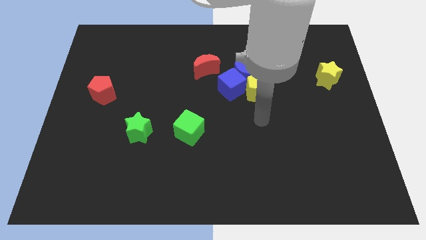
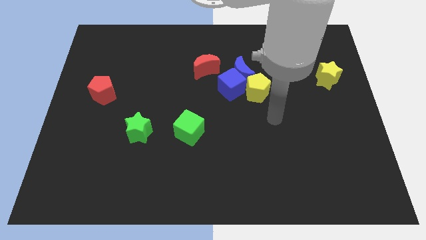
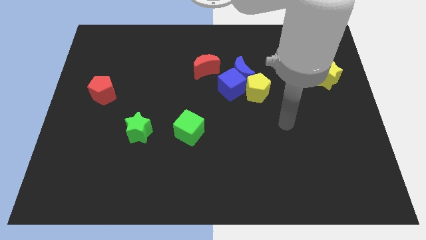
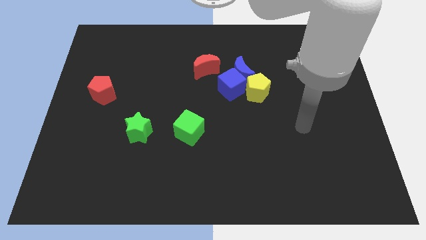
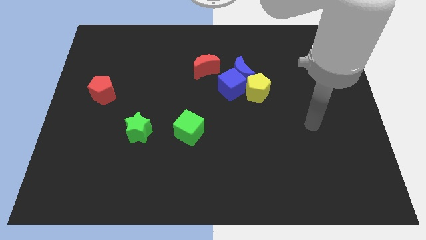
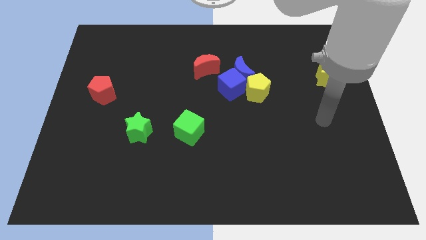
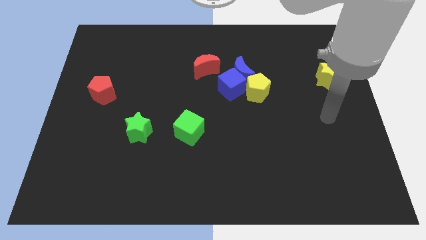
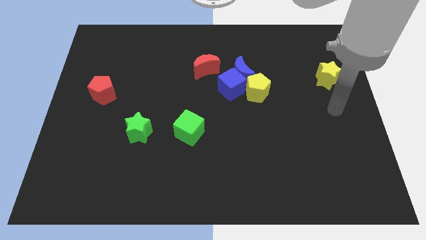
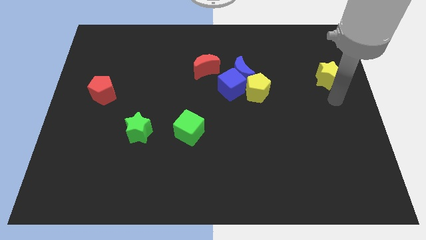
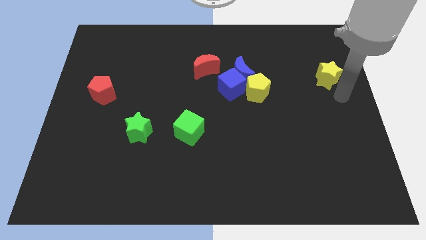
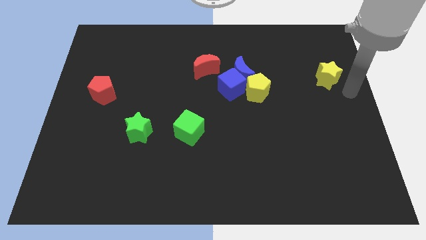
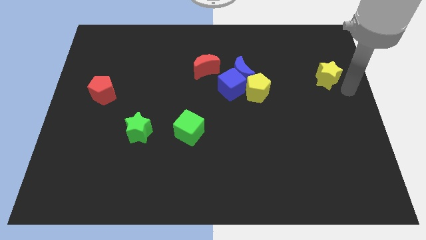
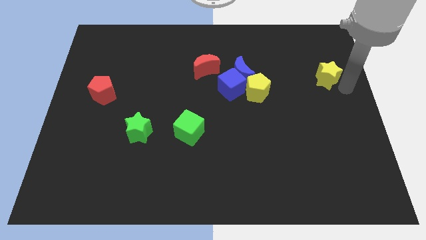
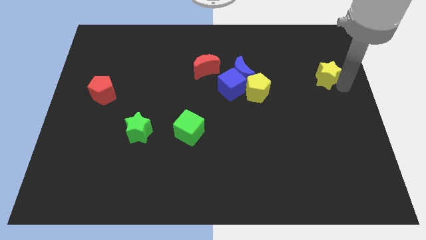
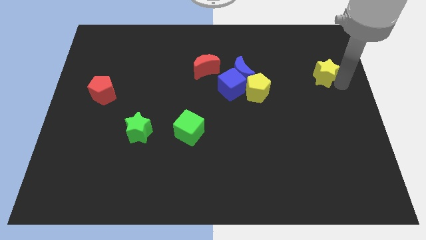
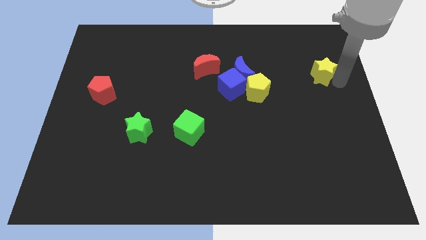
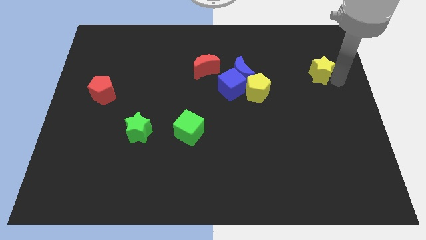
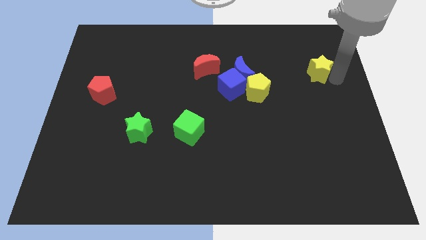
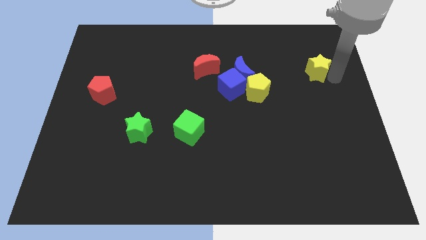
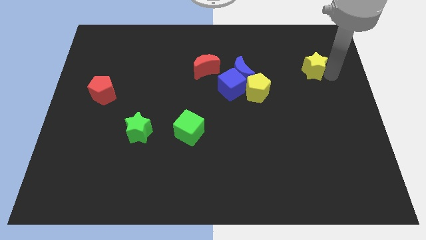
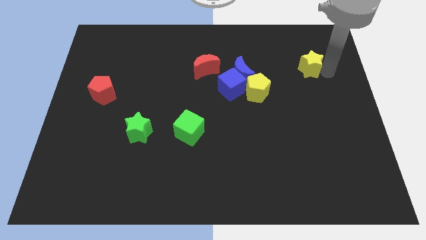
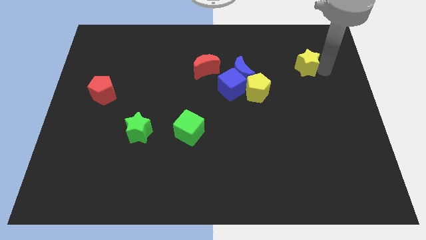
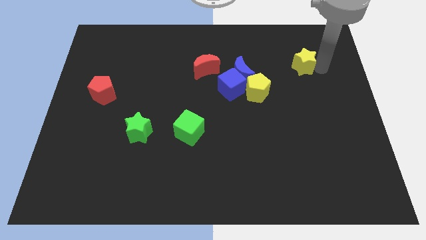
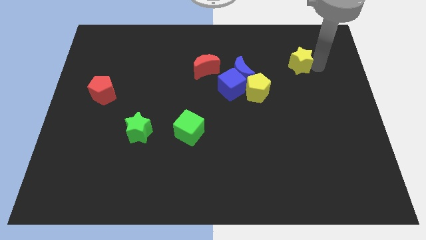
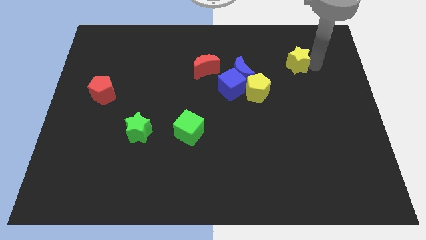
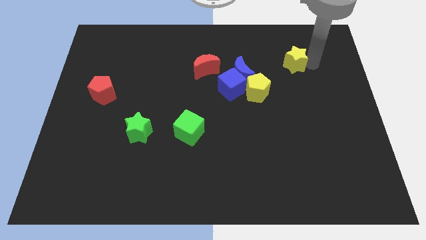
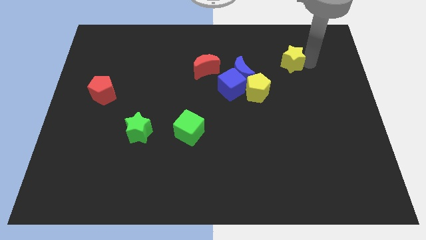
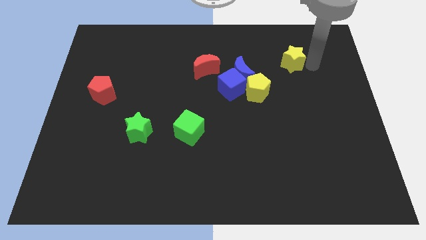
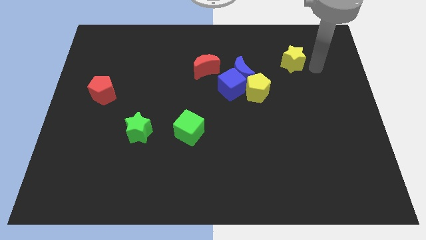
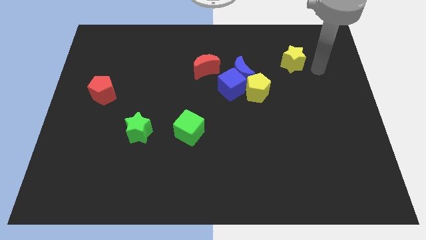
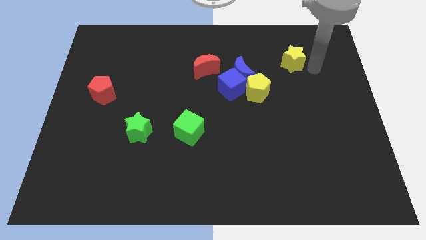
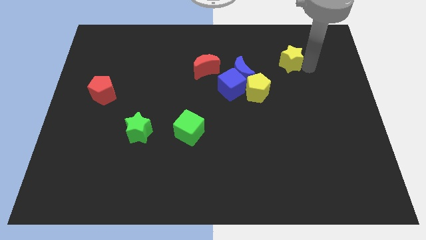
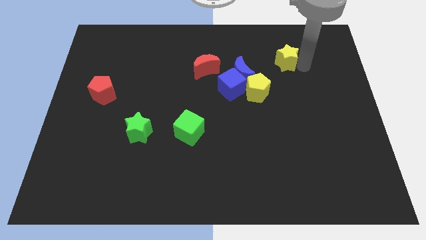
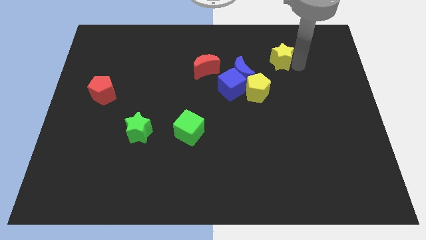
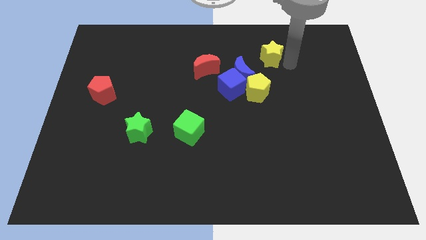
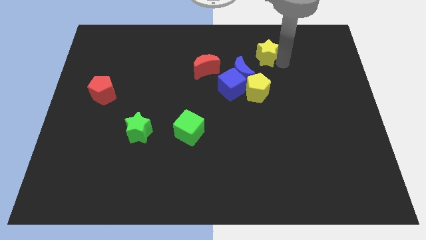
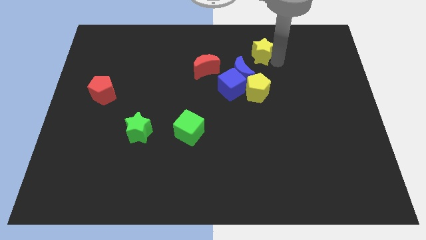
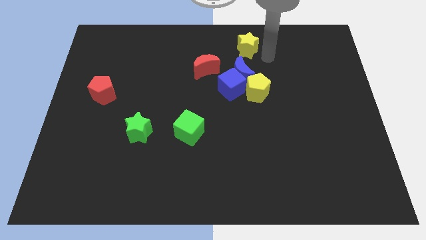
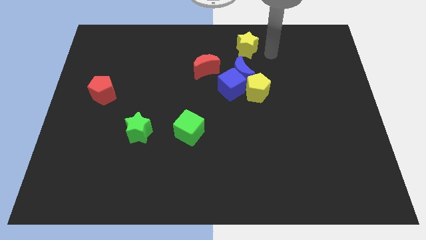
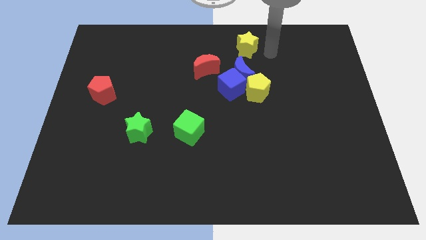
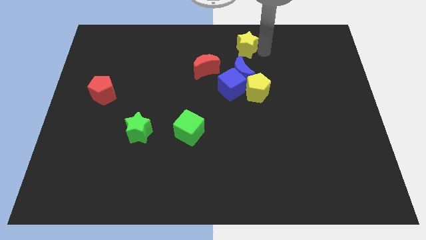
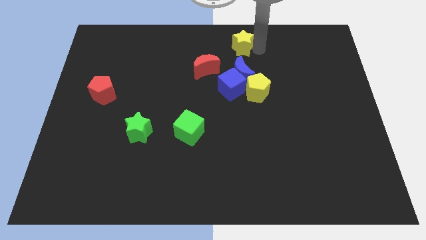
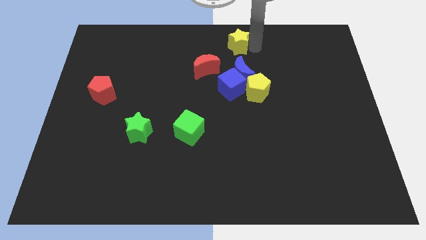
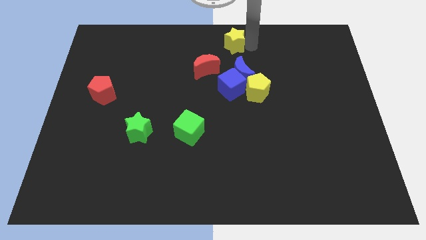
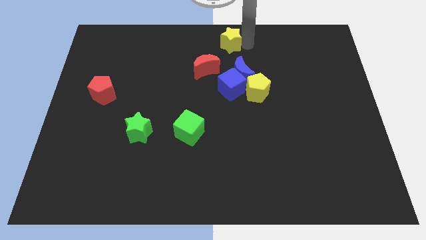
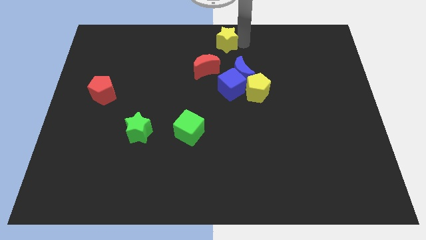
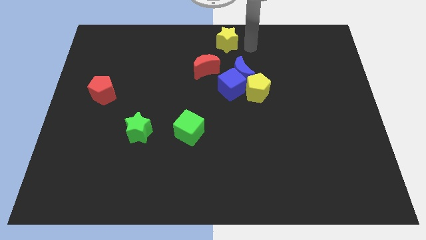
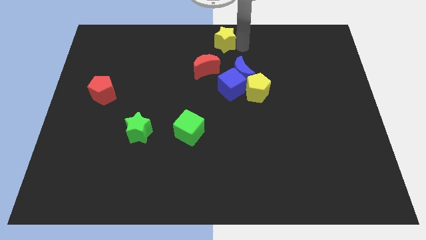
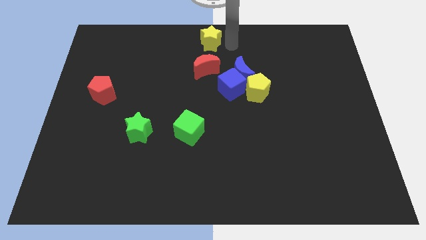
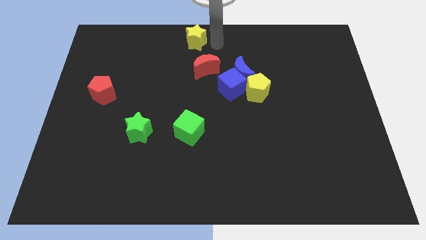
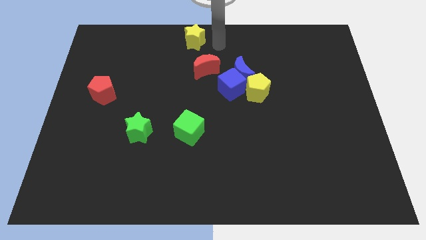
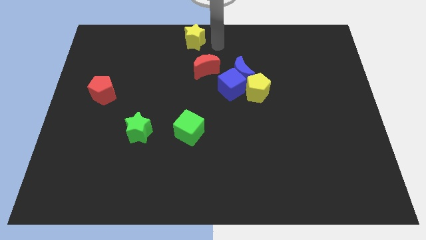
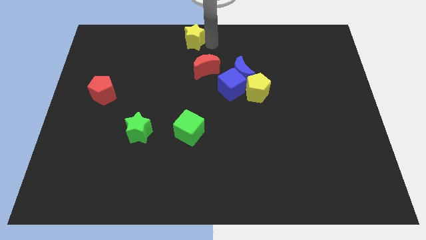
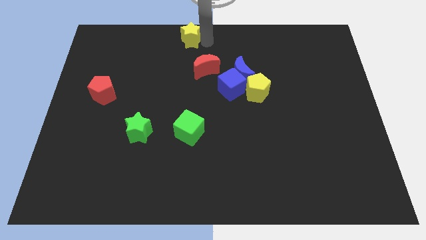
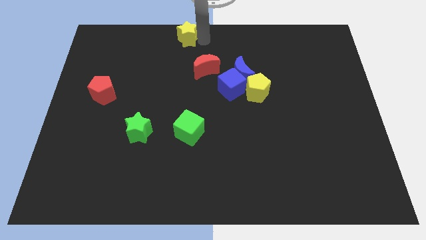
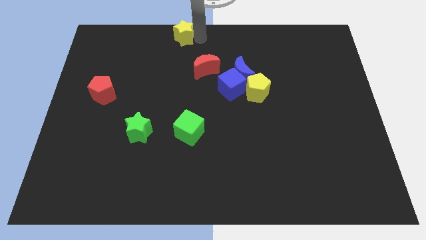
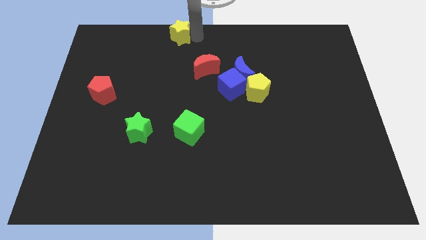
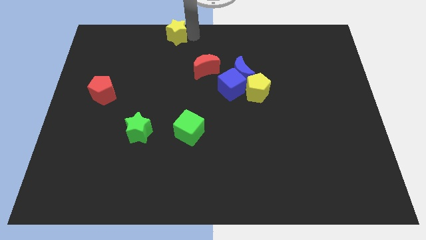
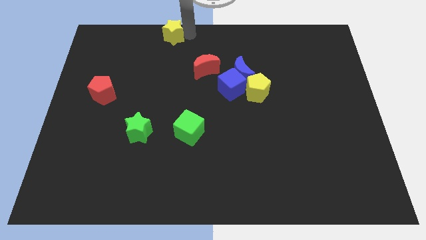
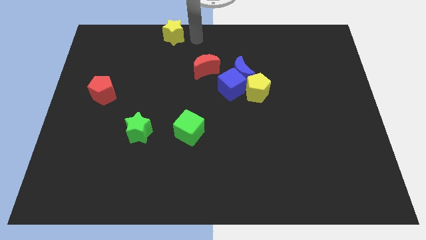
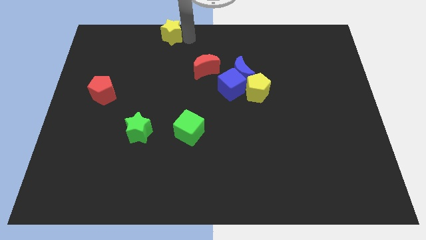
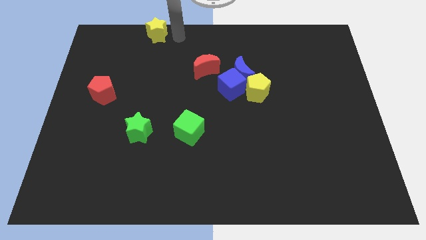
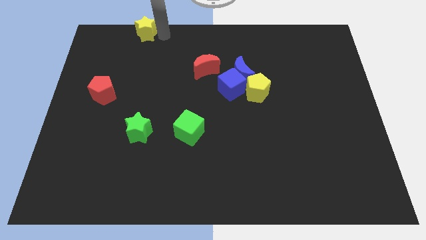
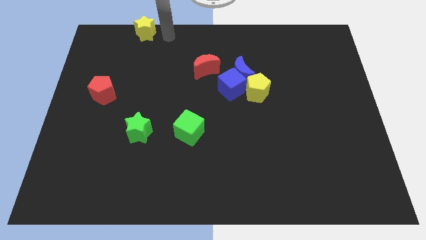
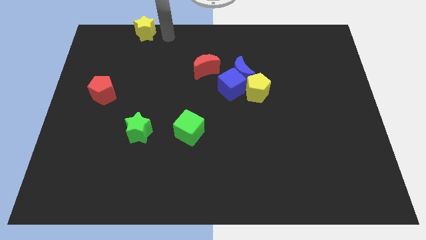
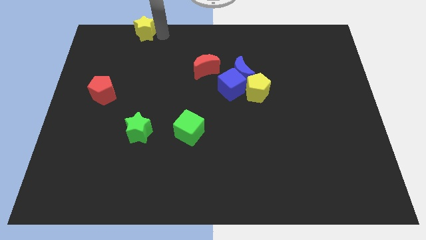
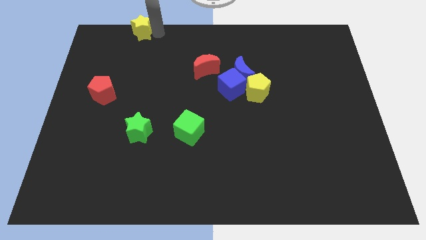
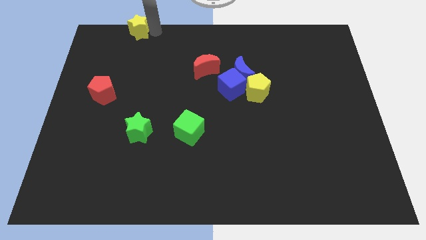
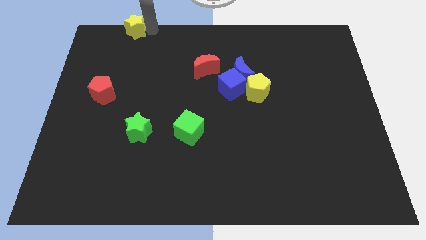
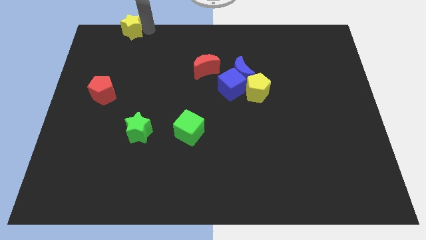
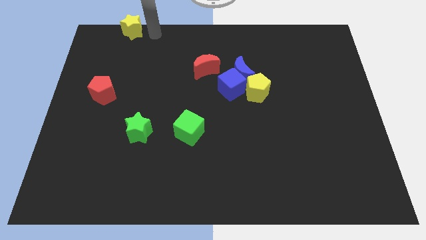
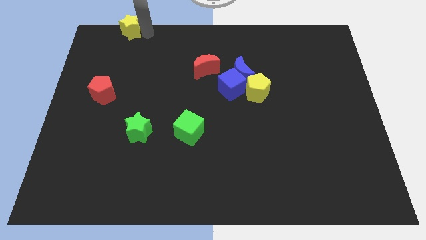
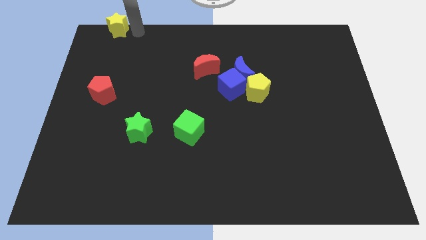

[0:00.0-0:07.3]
slide the yellow star to the upper left corner

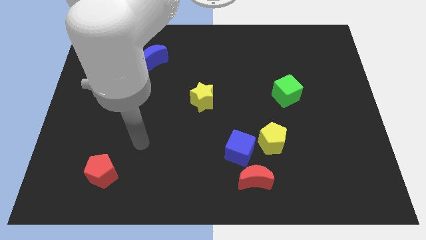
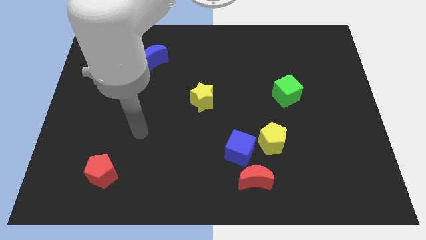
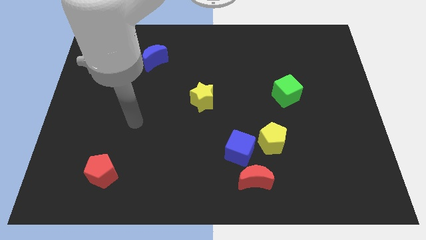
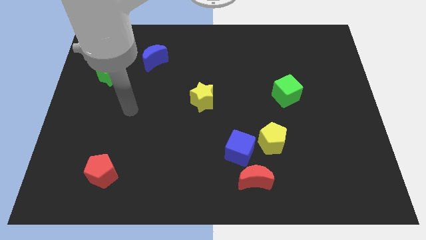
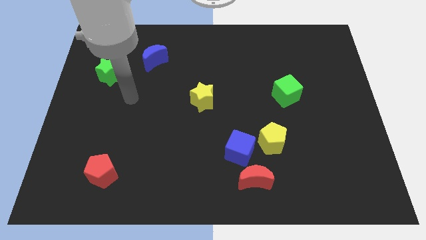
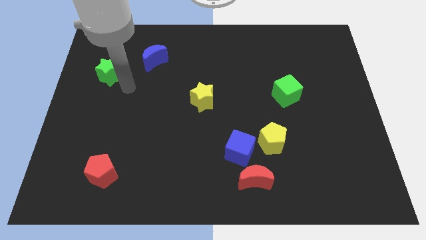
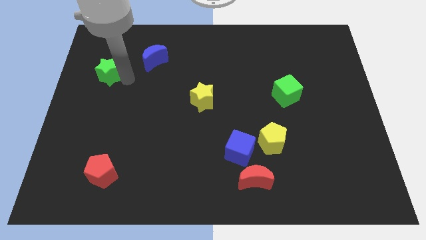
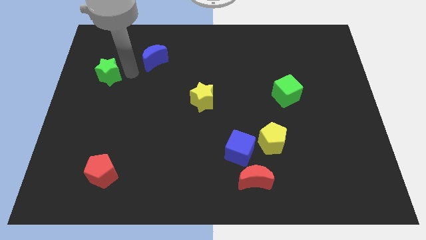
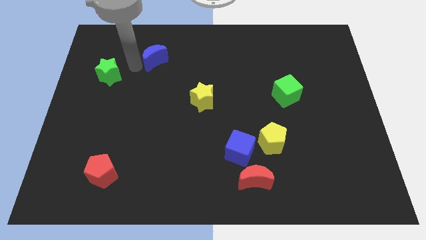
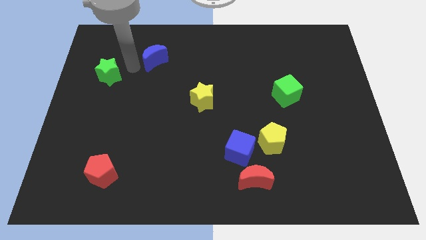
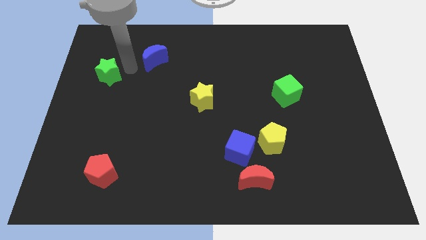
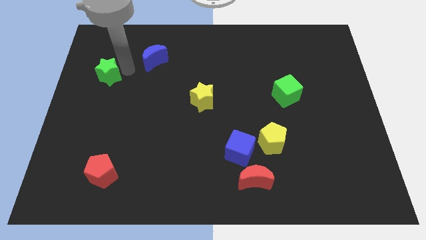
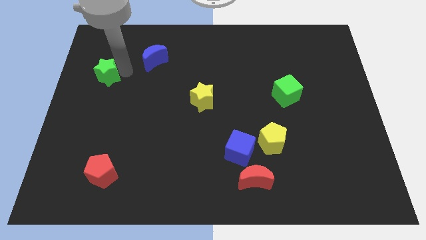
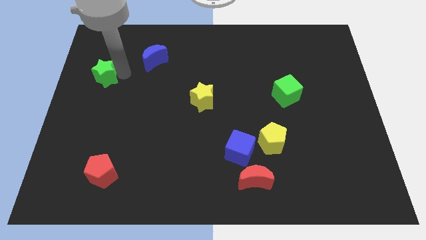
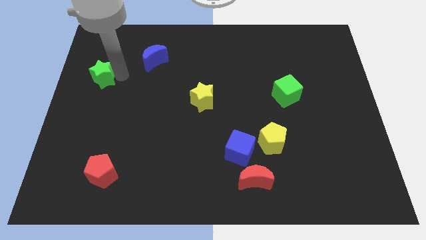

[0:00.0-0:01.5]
put the green star to the left side of the board
